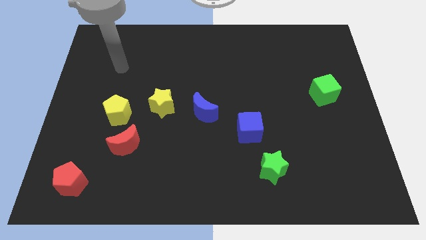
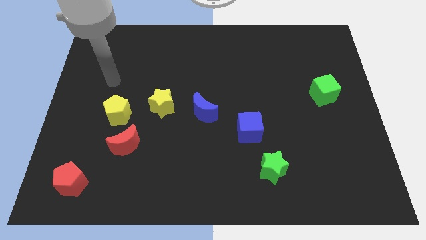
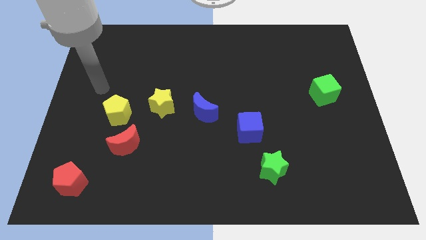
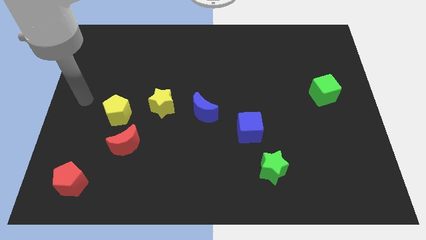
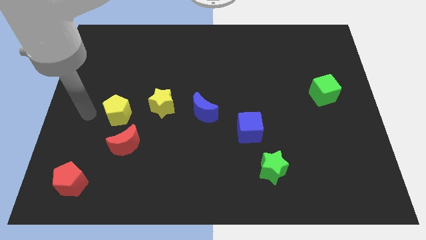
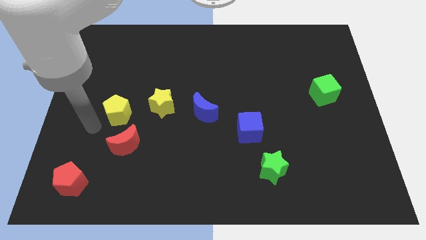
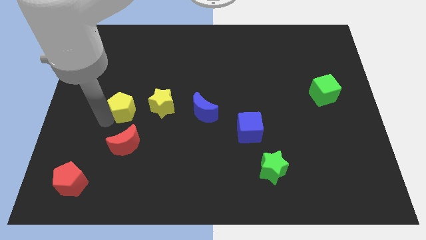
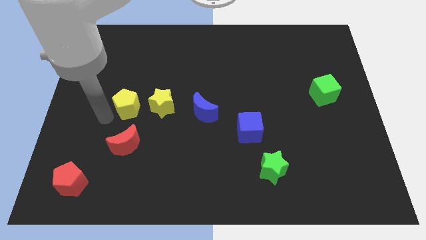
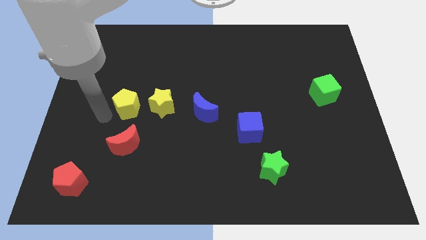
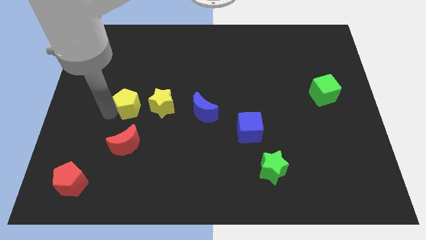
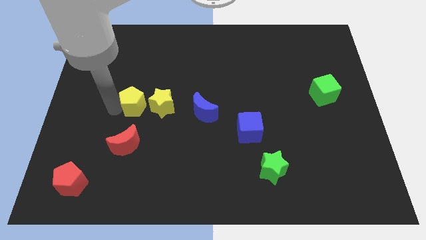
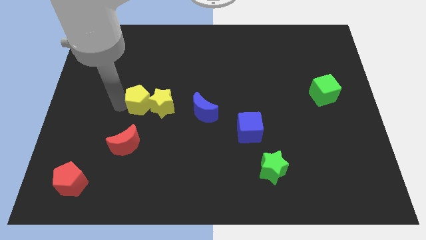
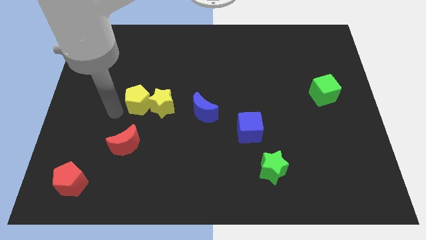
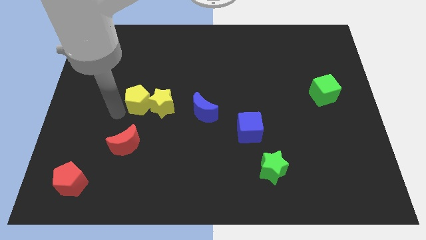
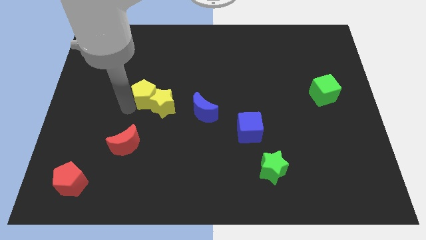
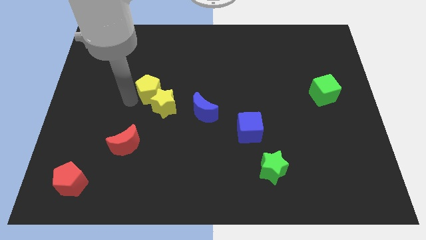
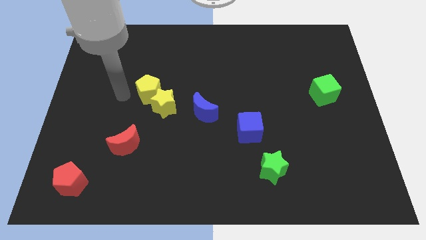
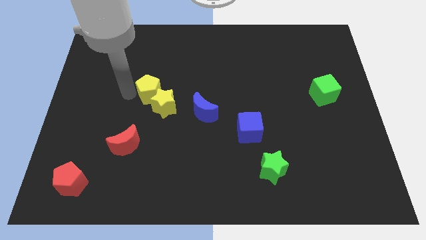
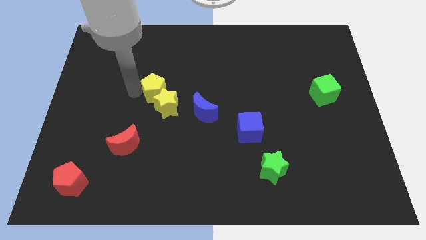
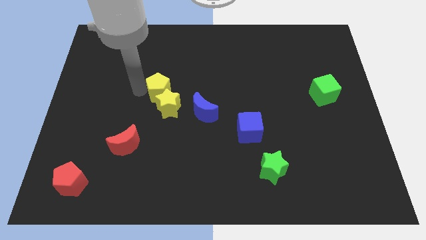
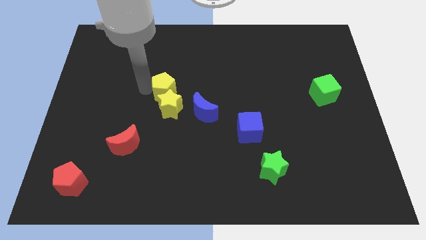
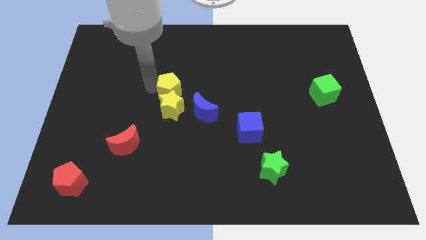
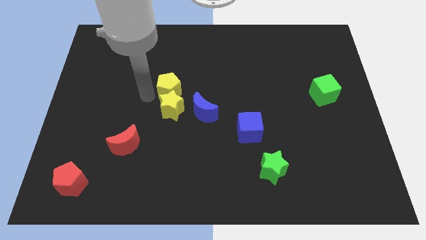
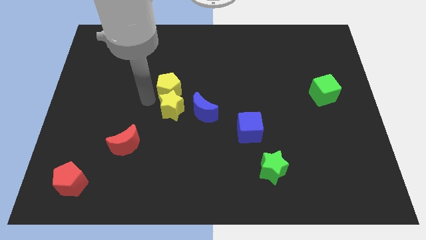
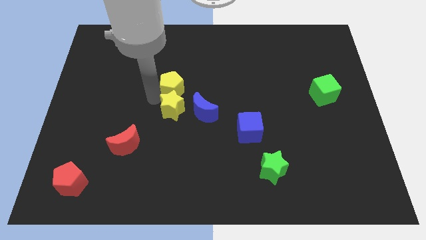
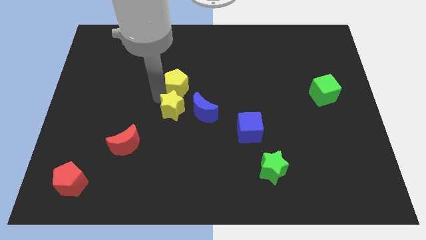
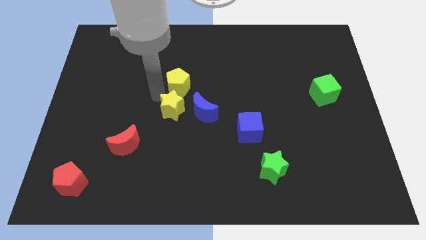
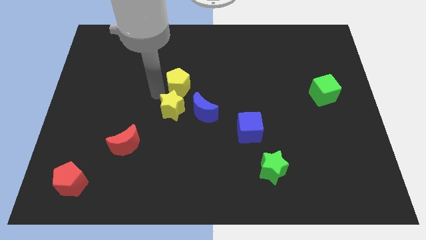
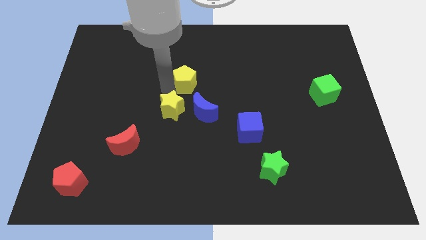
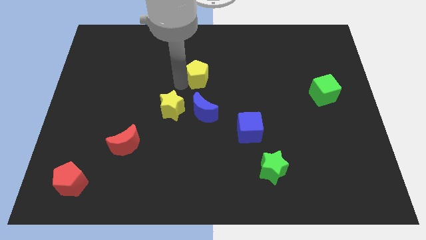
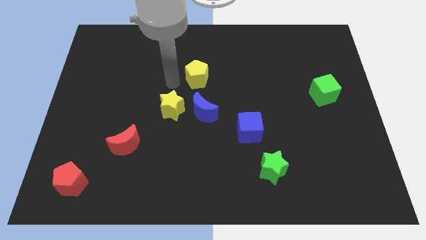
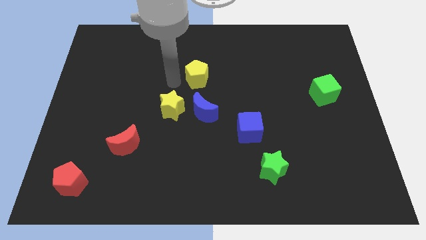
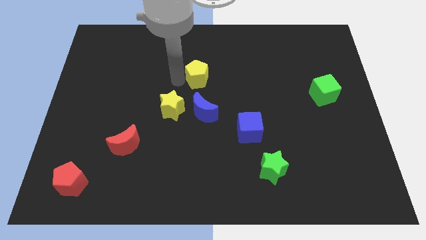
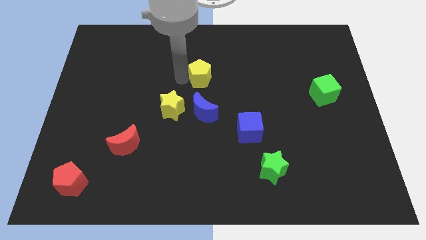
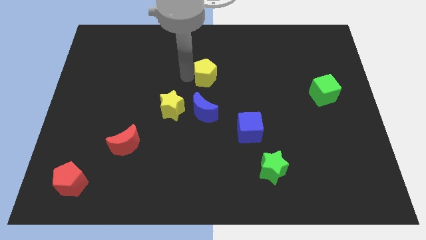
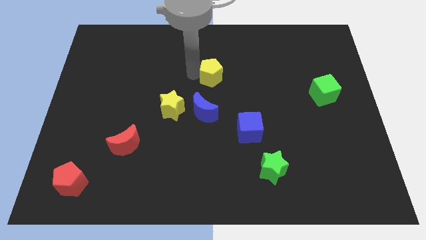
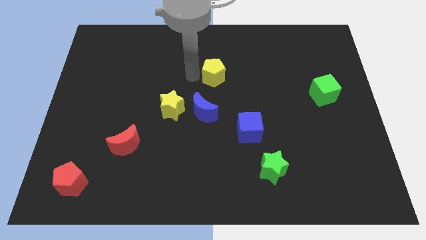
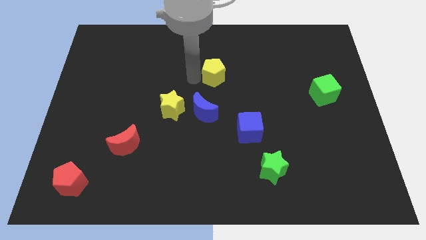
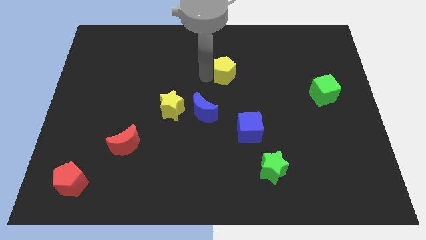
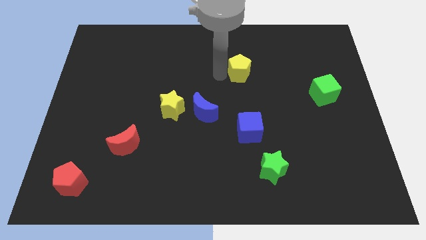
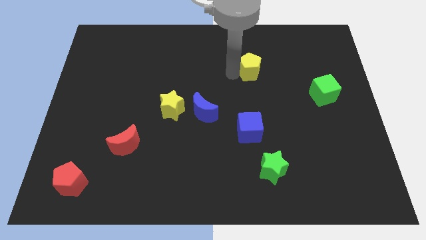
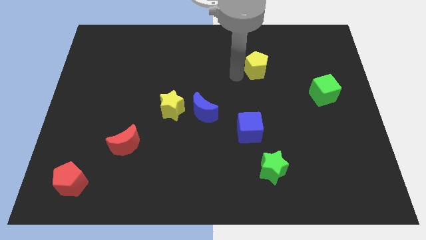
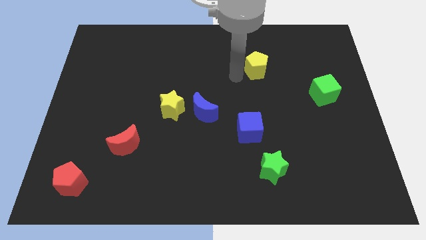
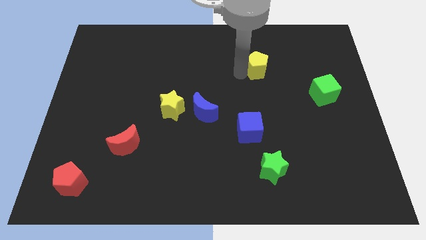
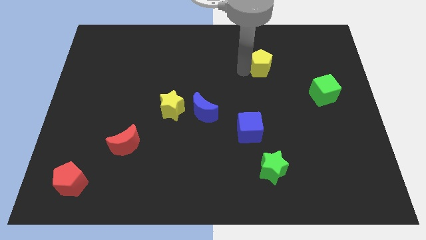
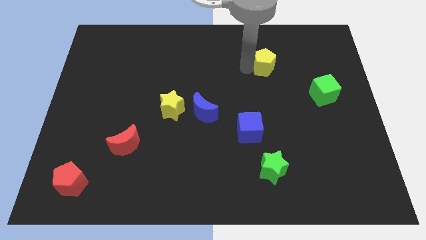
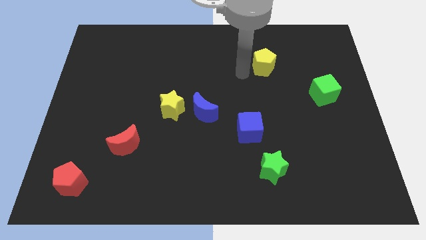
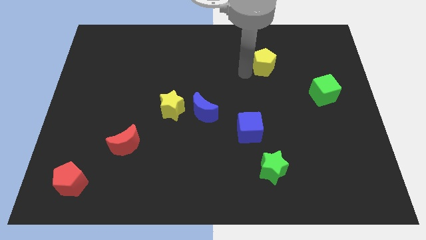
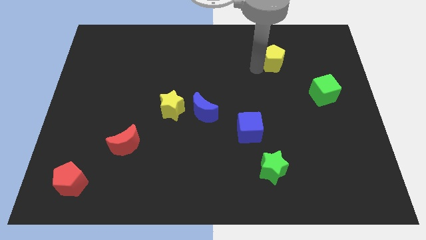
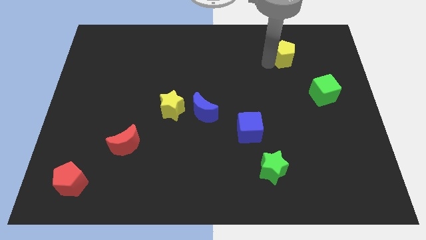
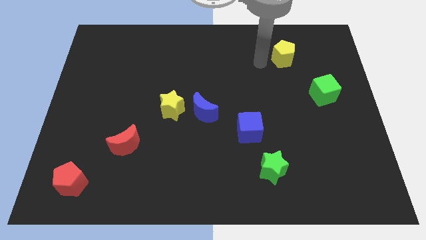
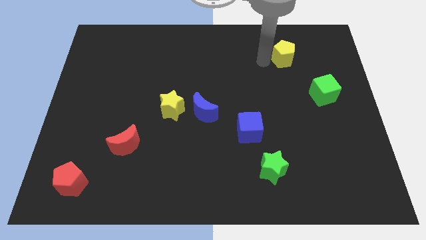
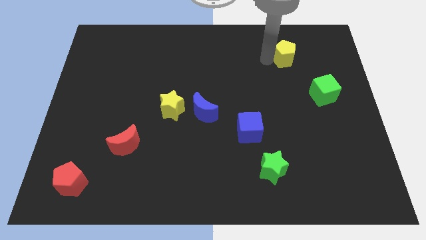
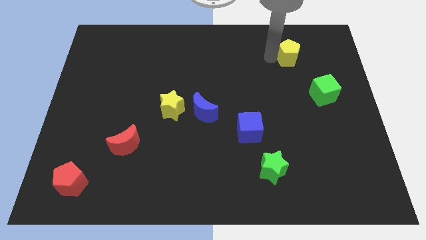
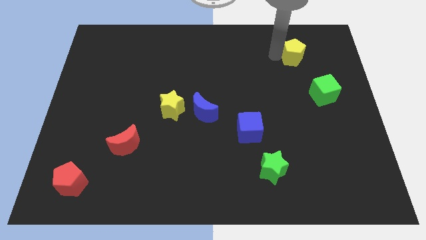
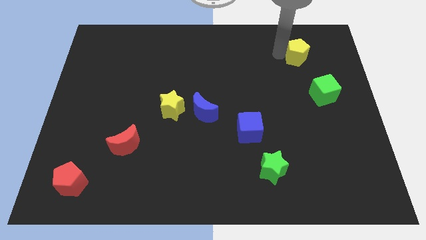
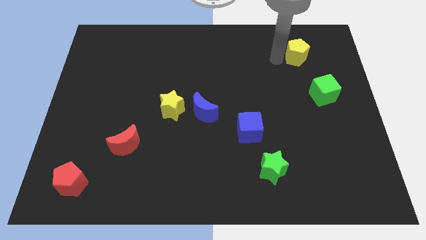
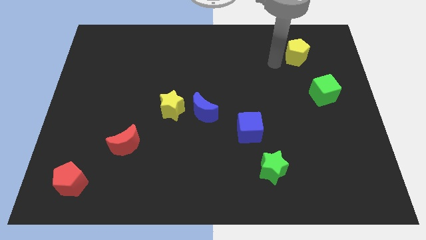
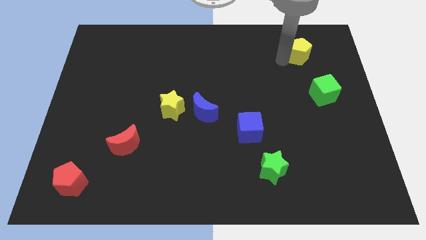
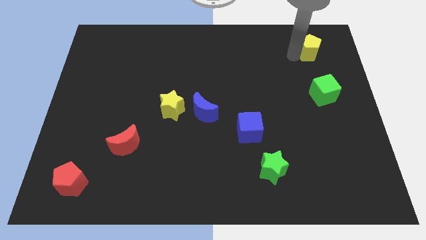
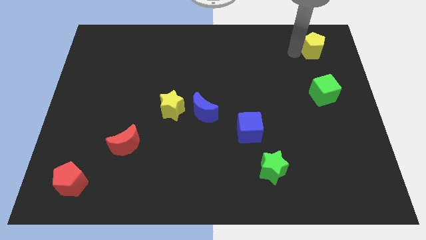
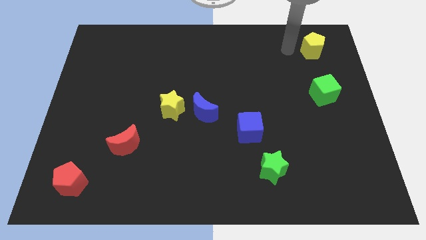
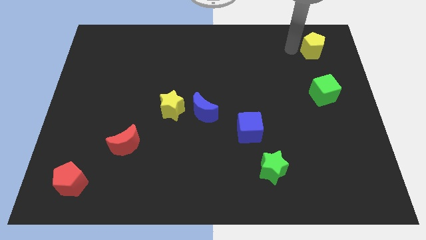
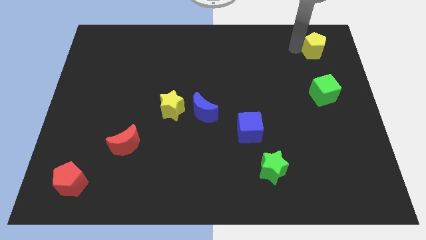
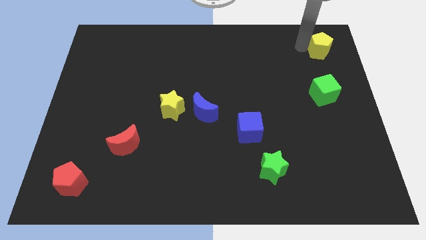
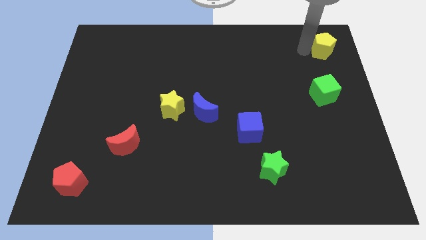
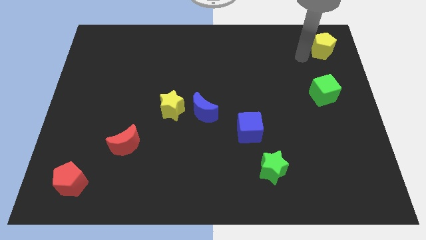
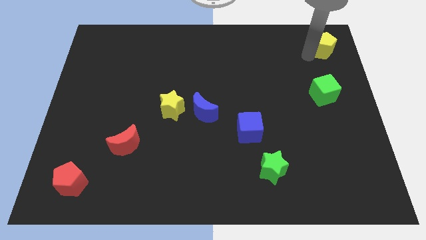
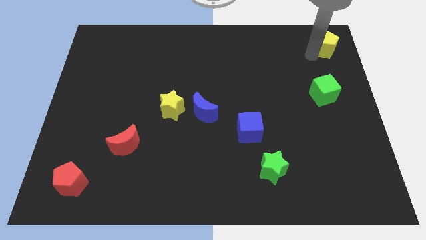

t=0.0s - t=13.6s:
push the yellow pentagon to the top right corner

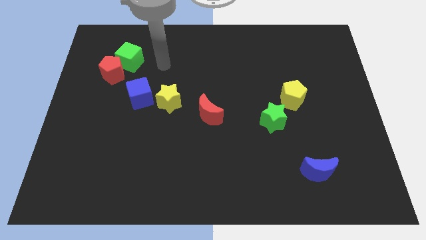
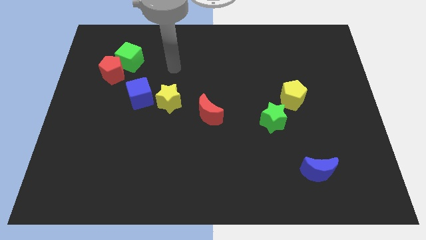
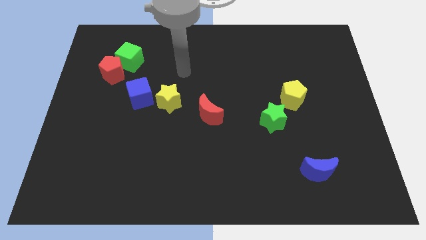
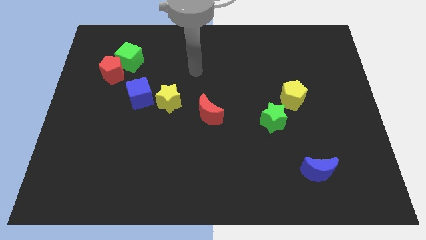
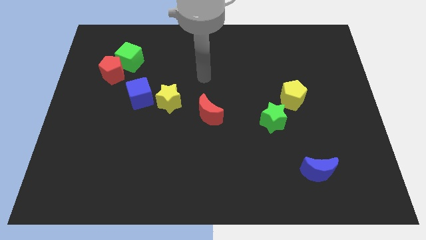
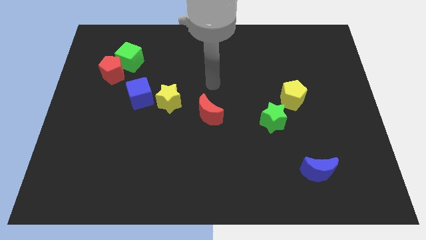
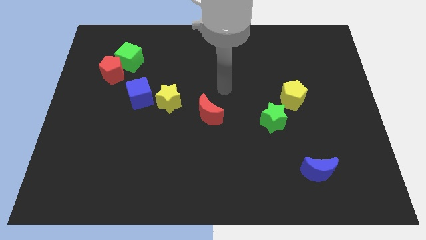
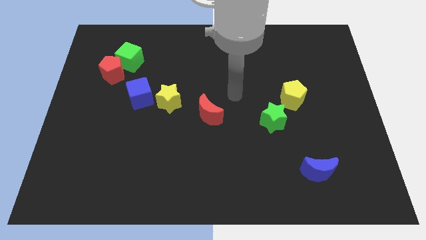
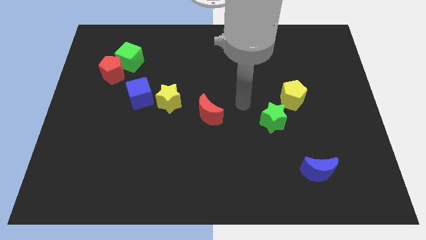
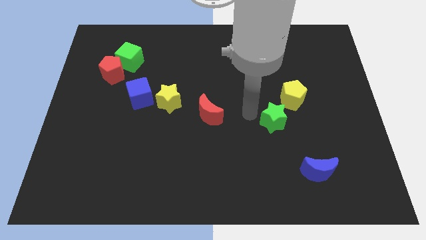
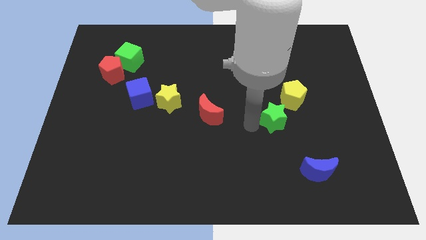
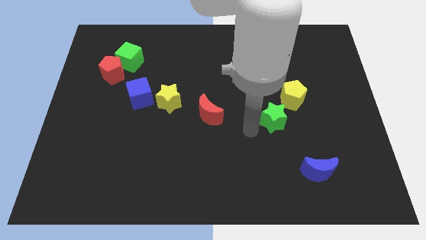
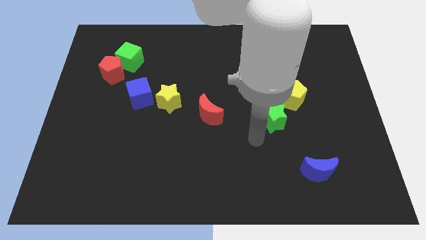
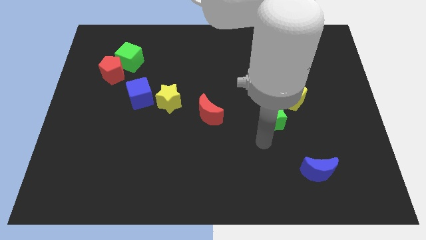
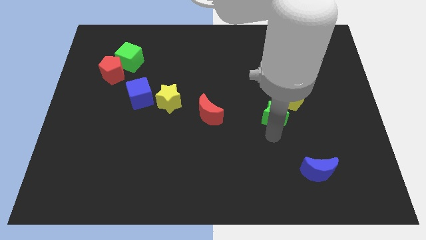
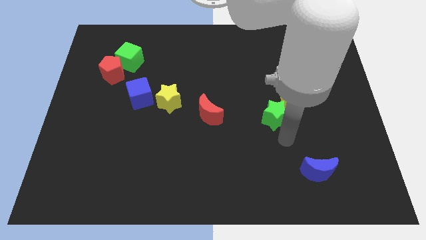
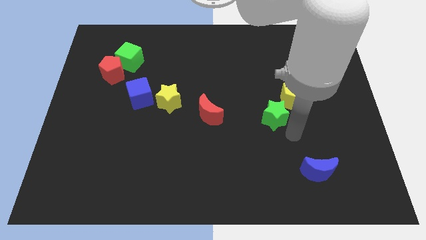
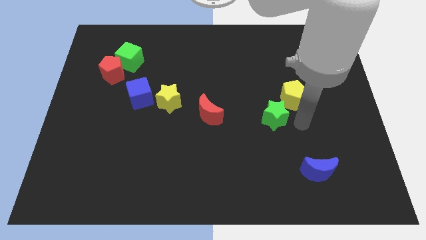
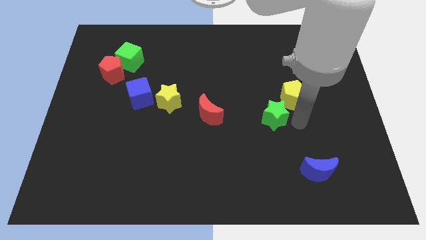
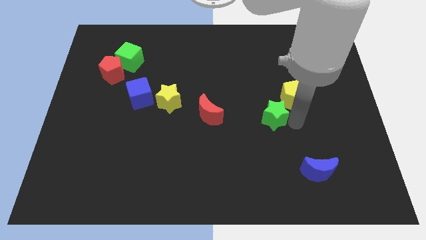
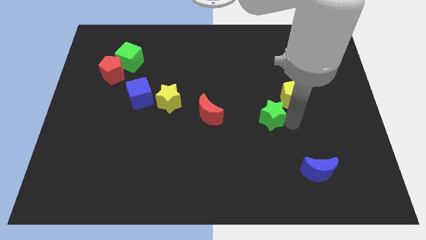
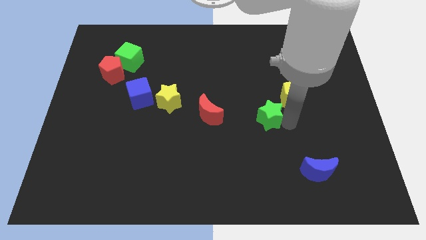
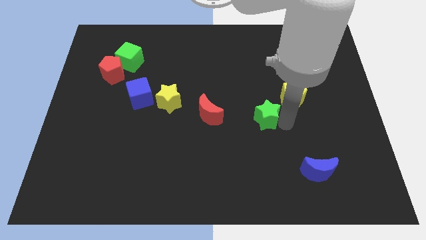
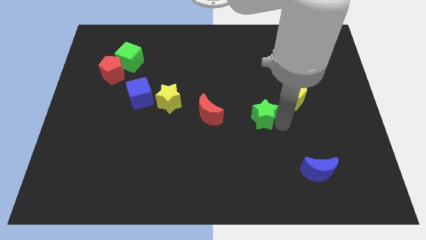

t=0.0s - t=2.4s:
slide the green star to the center of the board
